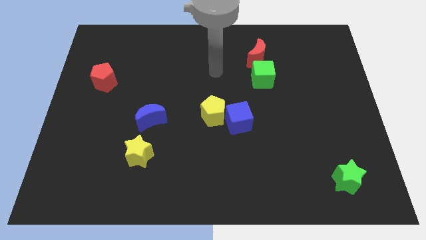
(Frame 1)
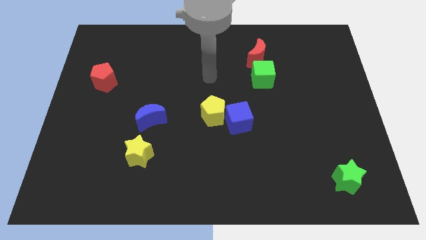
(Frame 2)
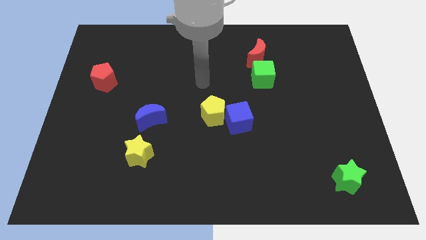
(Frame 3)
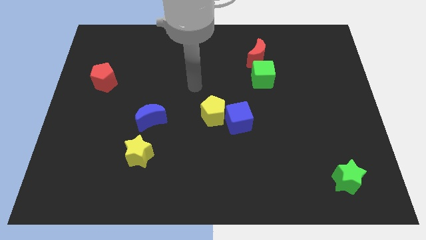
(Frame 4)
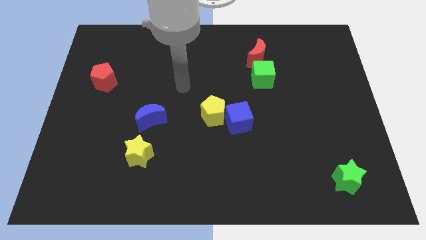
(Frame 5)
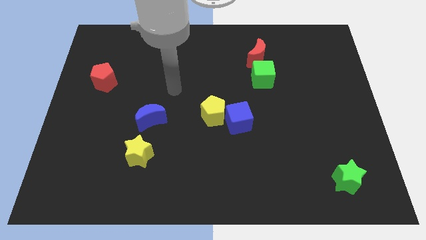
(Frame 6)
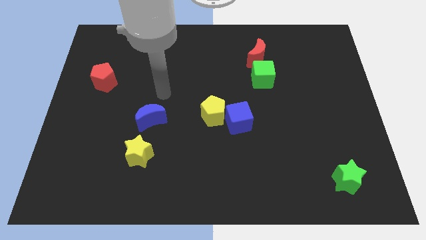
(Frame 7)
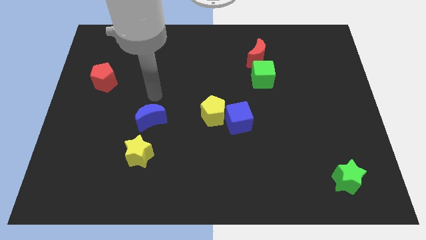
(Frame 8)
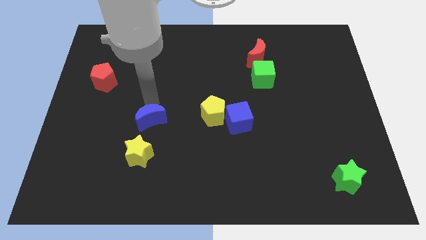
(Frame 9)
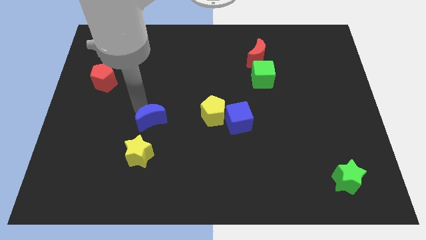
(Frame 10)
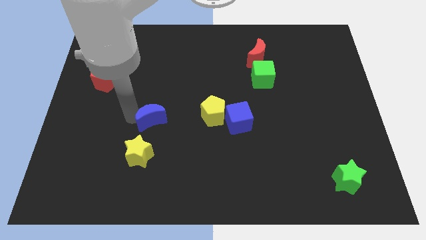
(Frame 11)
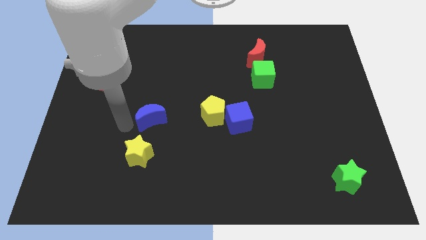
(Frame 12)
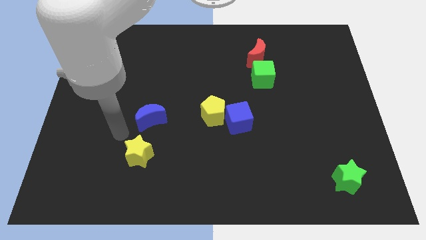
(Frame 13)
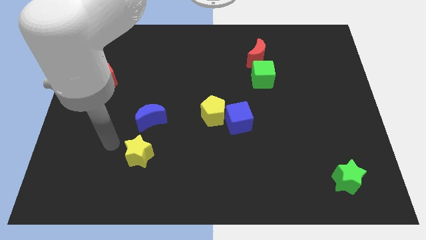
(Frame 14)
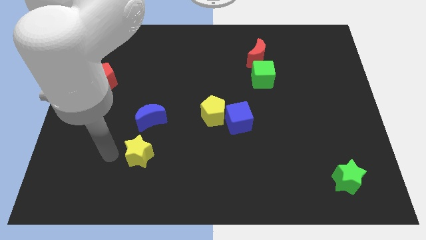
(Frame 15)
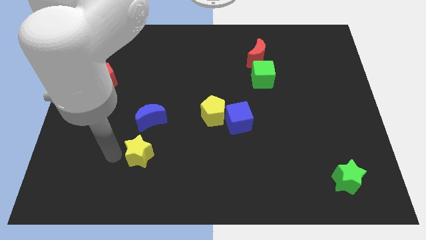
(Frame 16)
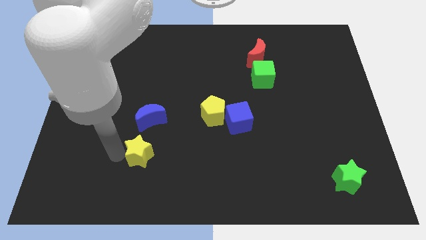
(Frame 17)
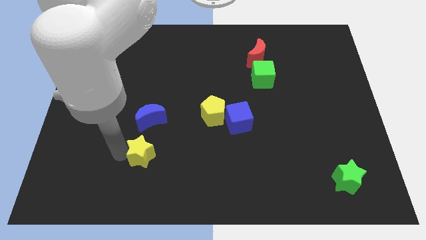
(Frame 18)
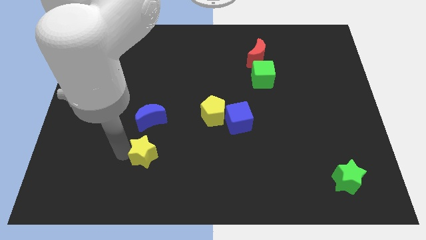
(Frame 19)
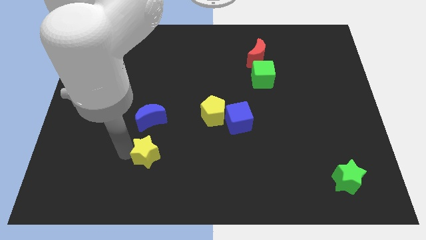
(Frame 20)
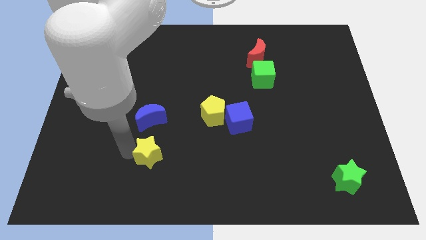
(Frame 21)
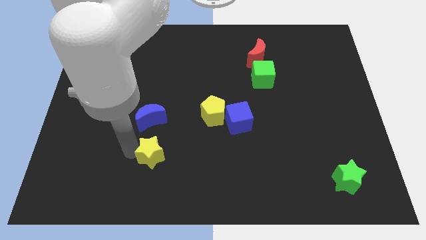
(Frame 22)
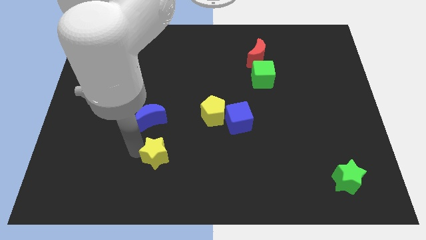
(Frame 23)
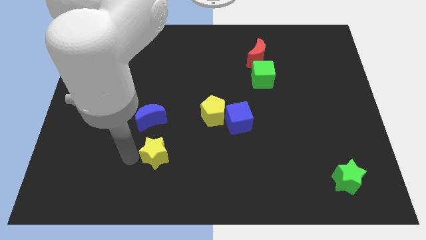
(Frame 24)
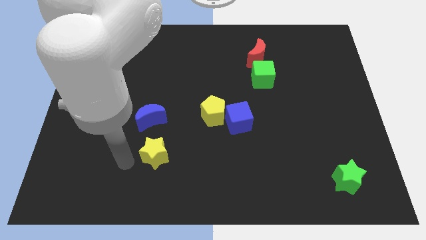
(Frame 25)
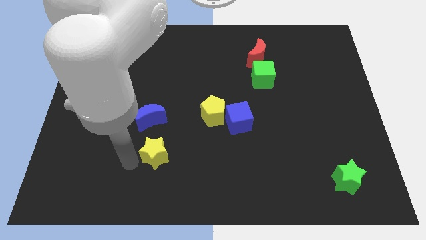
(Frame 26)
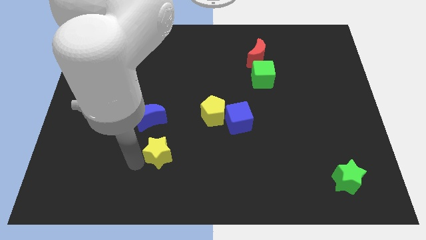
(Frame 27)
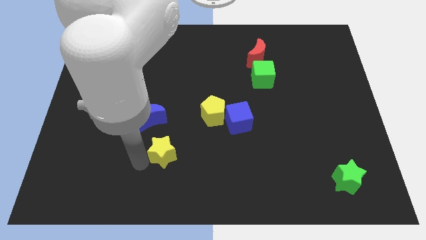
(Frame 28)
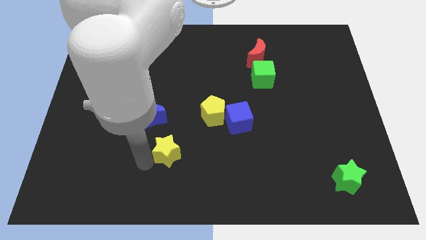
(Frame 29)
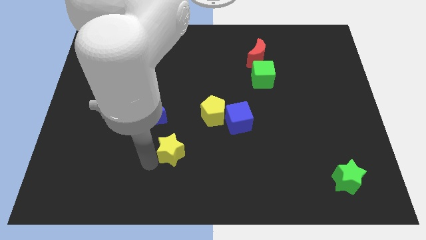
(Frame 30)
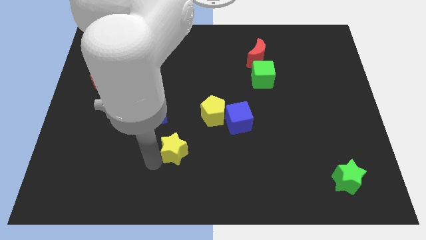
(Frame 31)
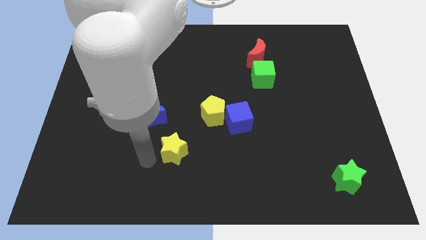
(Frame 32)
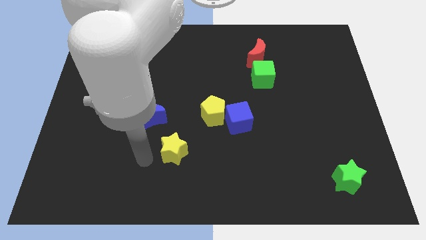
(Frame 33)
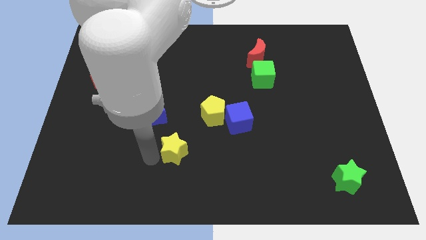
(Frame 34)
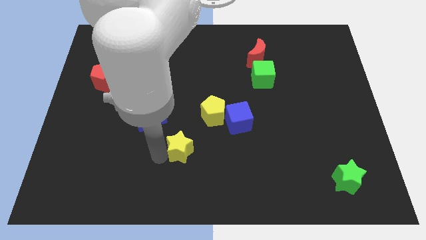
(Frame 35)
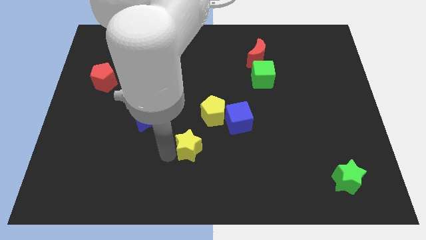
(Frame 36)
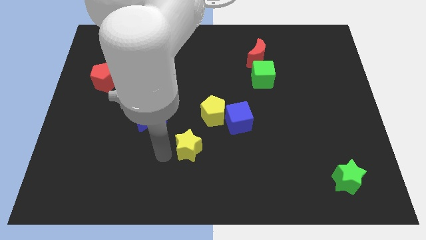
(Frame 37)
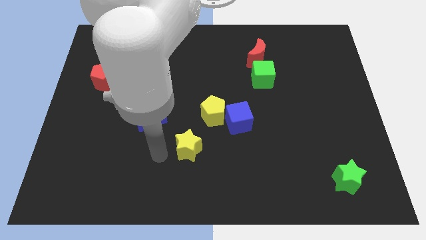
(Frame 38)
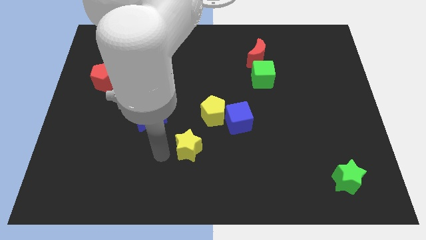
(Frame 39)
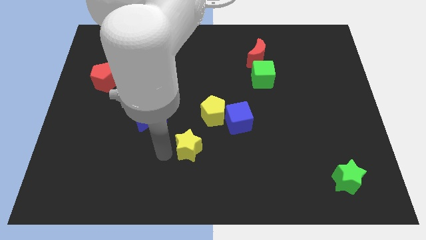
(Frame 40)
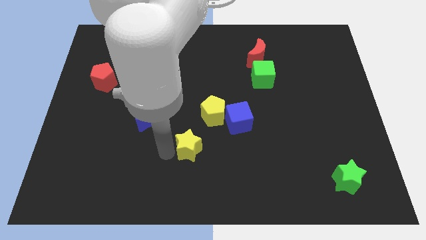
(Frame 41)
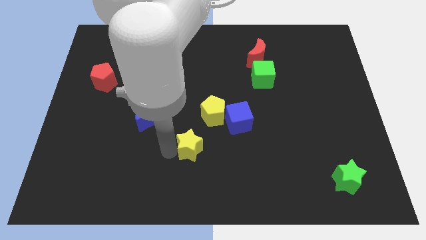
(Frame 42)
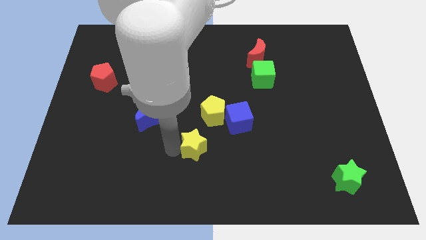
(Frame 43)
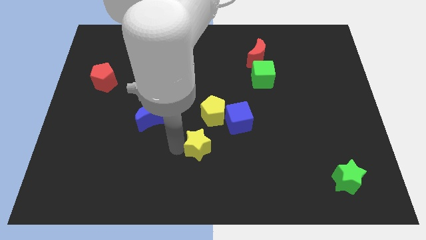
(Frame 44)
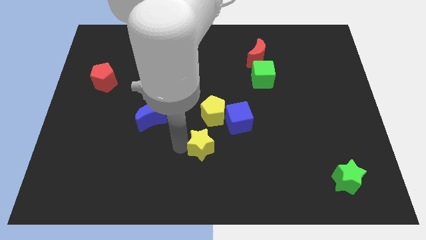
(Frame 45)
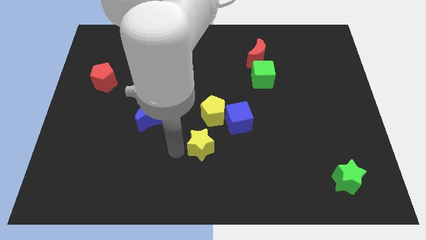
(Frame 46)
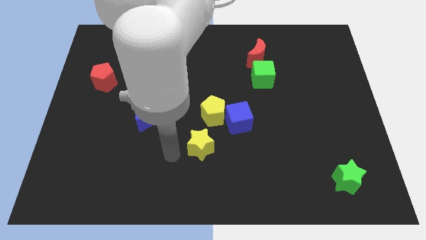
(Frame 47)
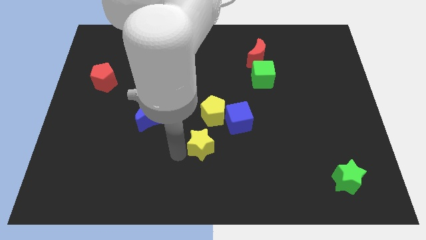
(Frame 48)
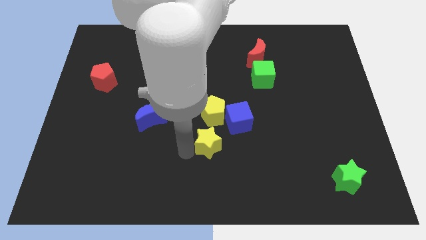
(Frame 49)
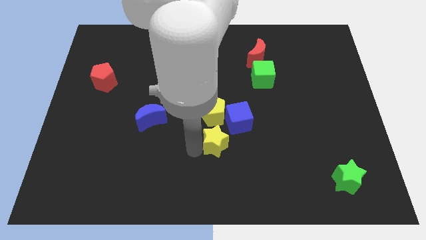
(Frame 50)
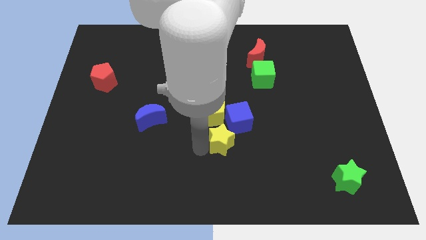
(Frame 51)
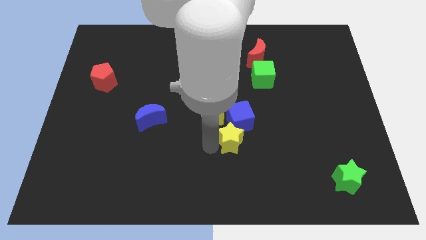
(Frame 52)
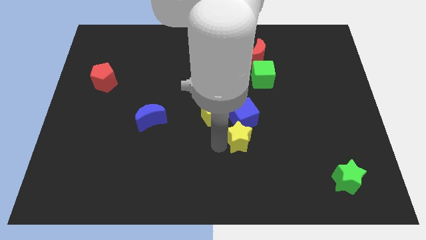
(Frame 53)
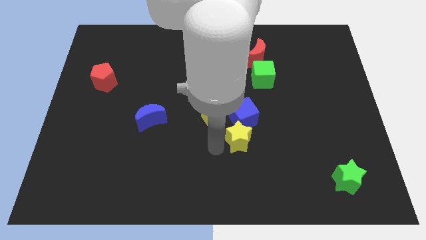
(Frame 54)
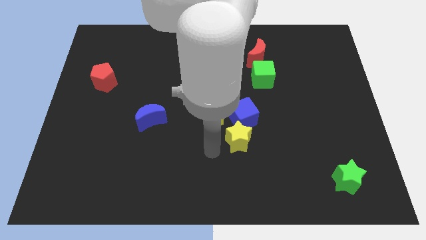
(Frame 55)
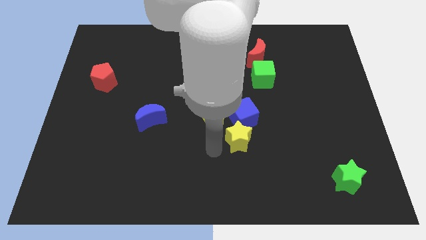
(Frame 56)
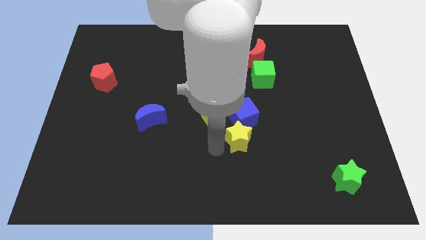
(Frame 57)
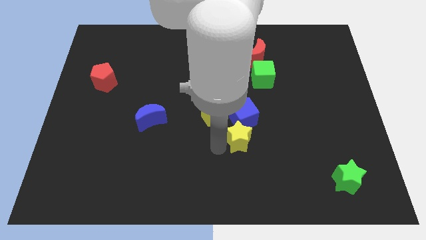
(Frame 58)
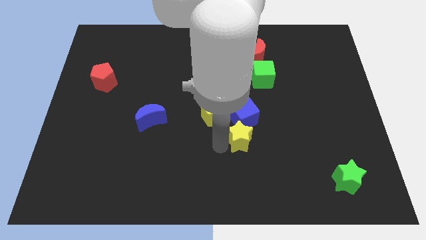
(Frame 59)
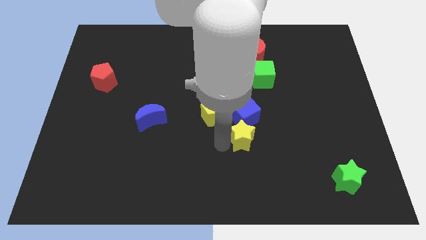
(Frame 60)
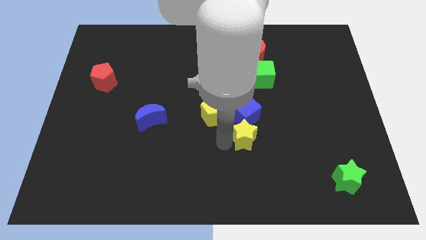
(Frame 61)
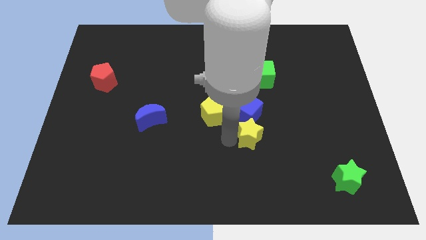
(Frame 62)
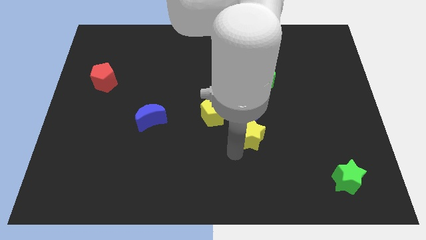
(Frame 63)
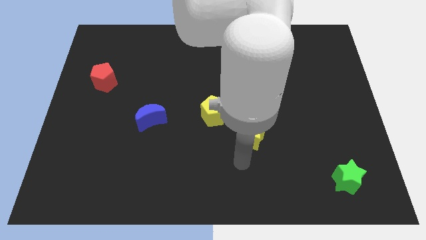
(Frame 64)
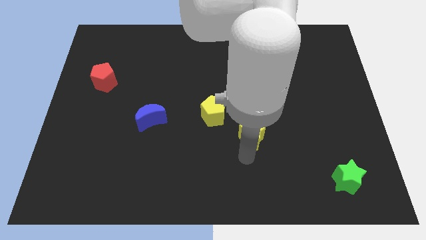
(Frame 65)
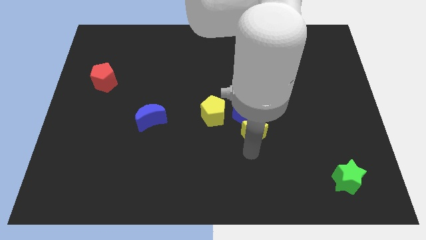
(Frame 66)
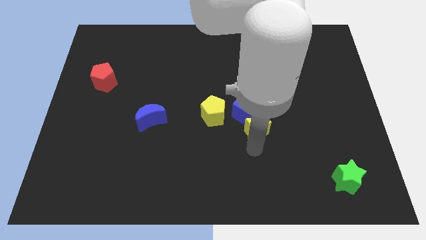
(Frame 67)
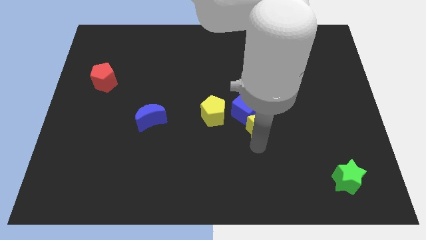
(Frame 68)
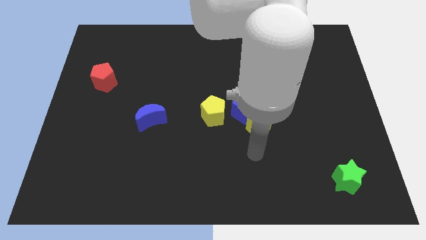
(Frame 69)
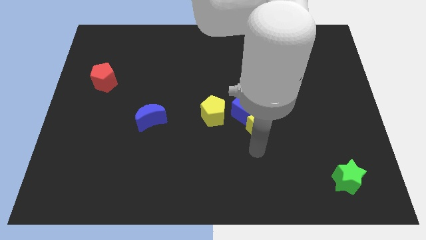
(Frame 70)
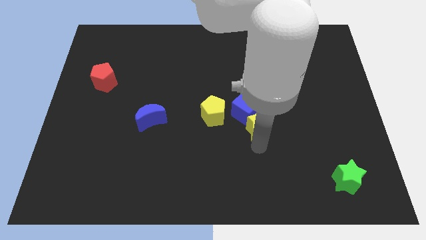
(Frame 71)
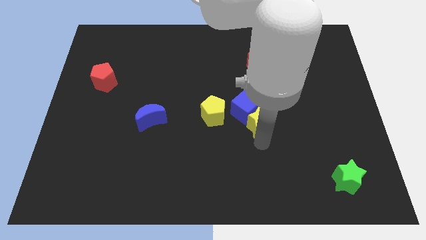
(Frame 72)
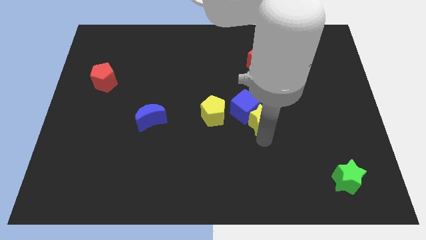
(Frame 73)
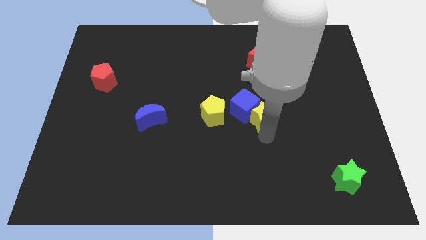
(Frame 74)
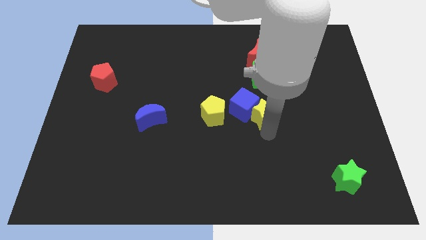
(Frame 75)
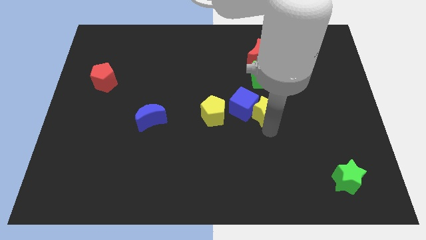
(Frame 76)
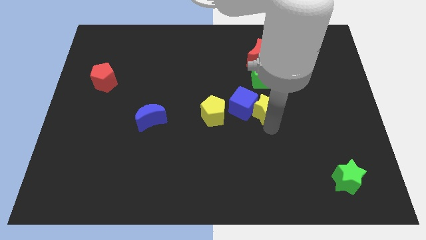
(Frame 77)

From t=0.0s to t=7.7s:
move the yellow star to the top right side of the blue cube
